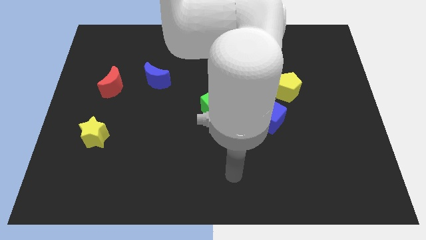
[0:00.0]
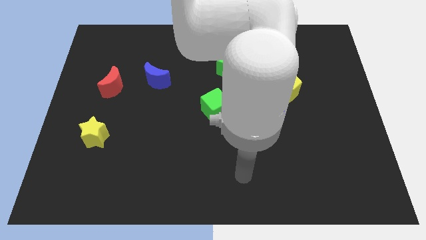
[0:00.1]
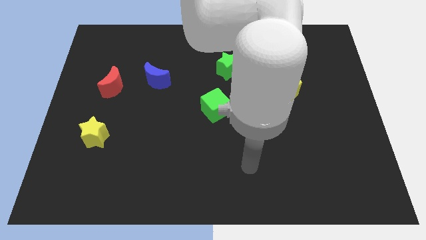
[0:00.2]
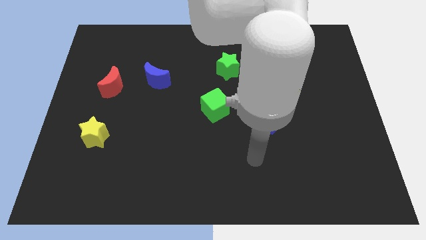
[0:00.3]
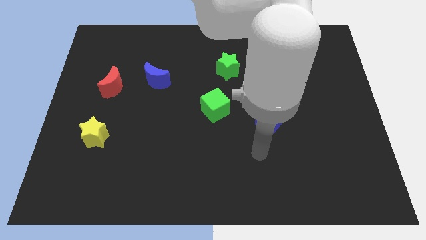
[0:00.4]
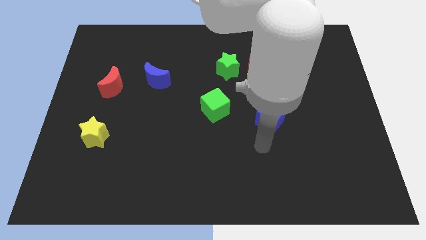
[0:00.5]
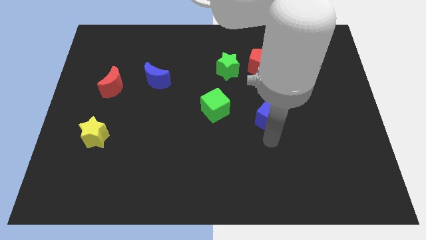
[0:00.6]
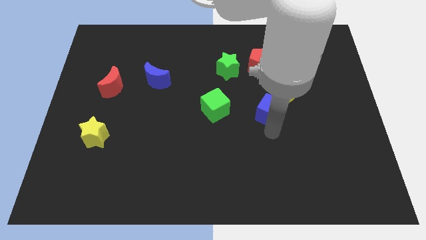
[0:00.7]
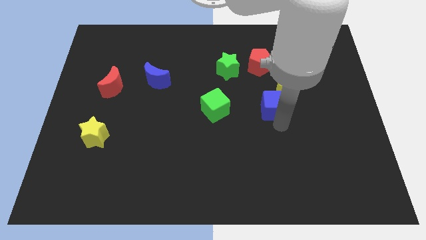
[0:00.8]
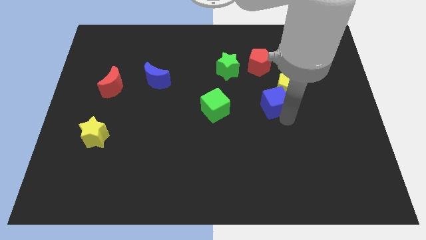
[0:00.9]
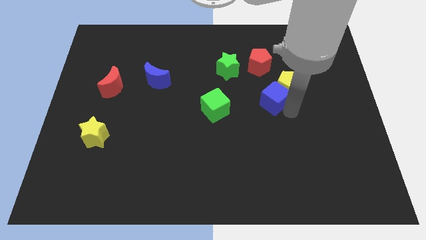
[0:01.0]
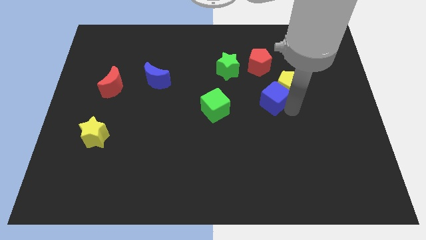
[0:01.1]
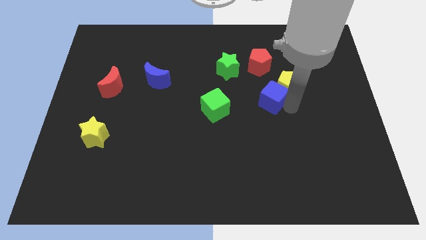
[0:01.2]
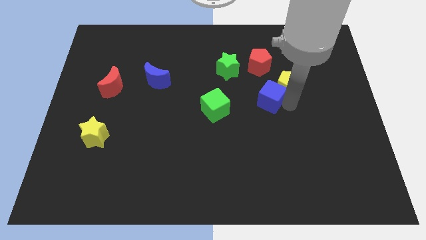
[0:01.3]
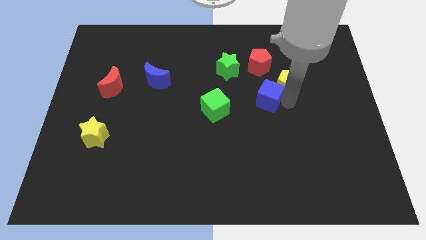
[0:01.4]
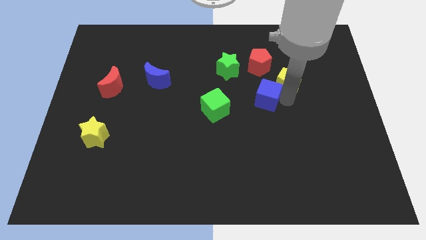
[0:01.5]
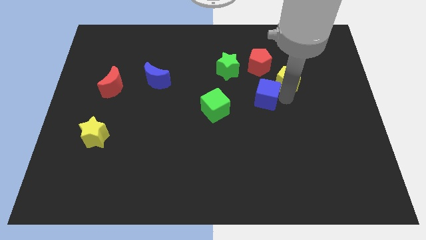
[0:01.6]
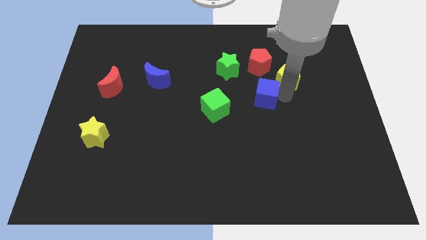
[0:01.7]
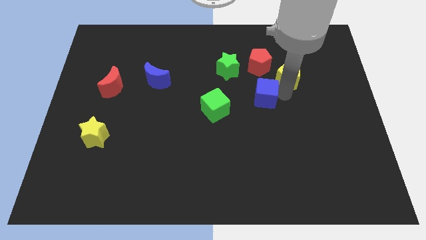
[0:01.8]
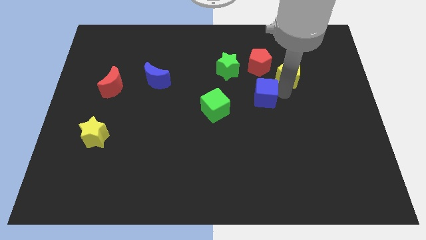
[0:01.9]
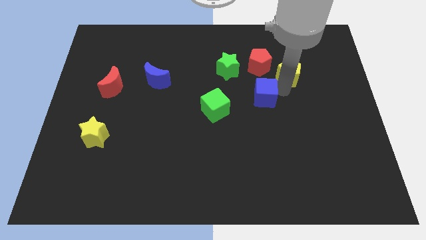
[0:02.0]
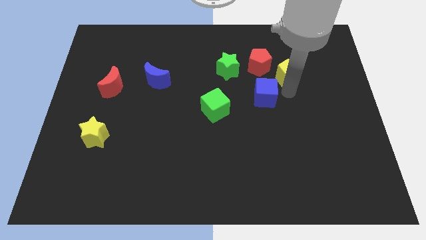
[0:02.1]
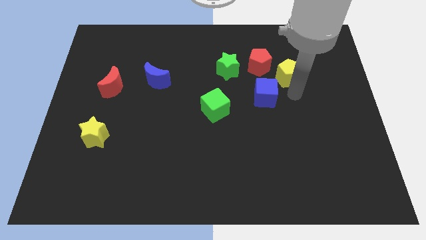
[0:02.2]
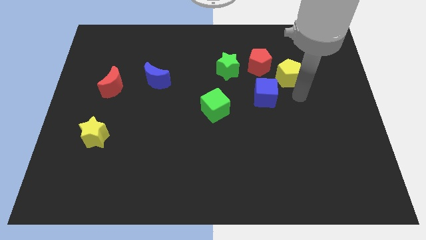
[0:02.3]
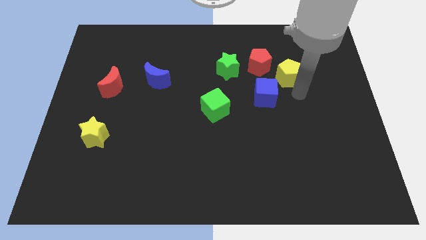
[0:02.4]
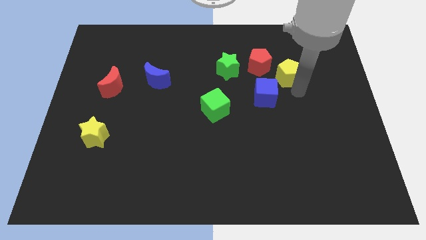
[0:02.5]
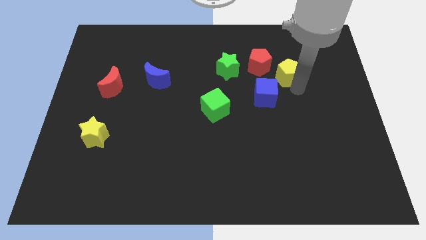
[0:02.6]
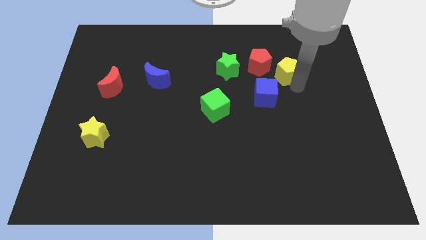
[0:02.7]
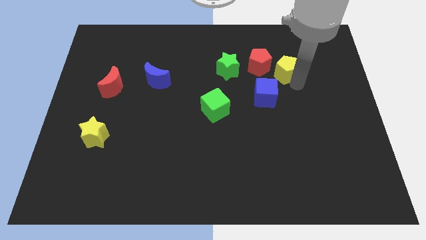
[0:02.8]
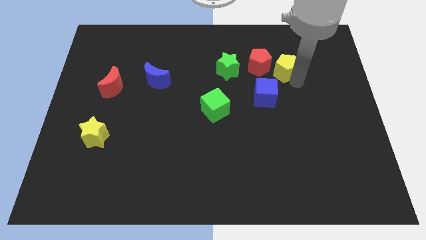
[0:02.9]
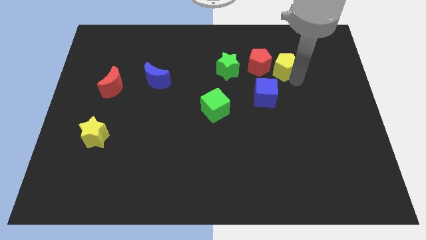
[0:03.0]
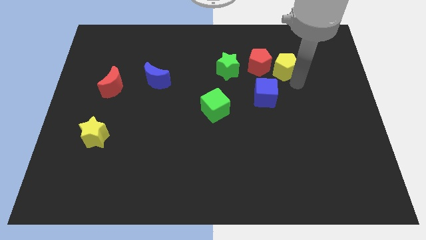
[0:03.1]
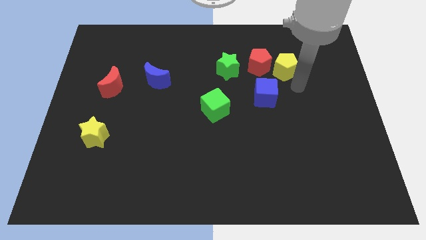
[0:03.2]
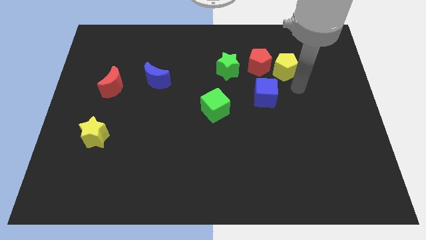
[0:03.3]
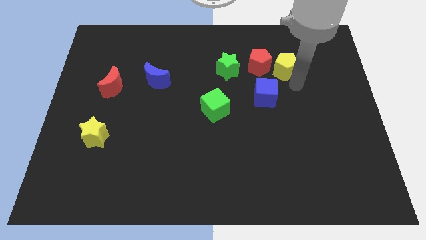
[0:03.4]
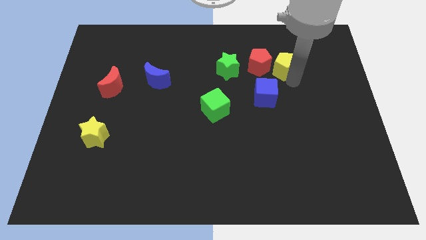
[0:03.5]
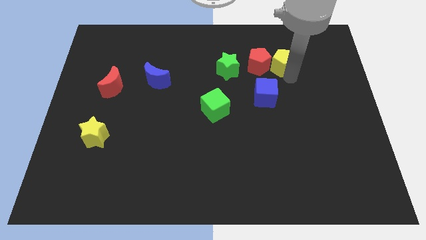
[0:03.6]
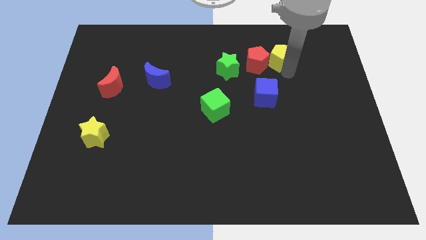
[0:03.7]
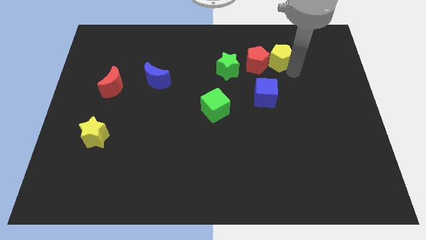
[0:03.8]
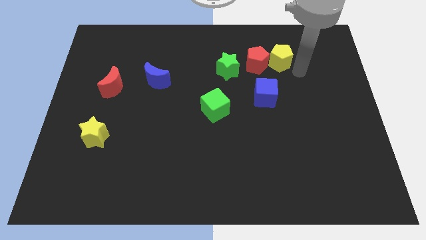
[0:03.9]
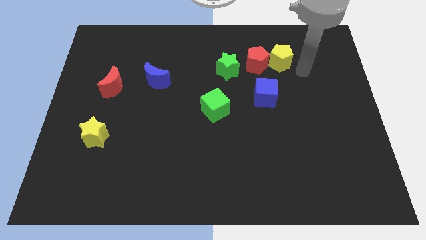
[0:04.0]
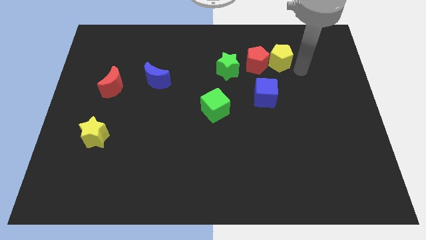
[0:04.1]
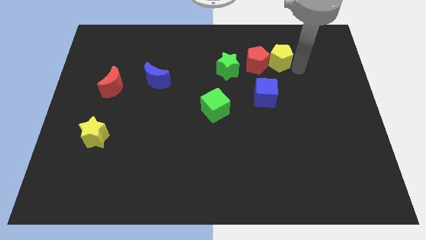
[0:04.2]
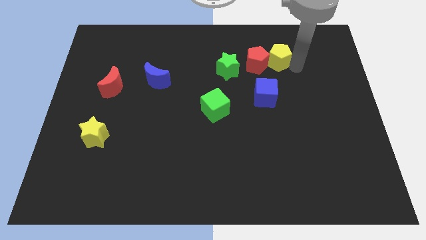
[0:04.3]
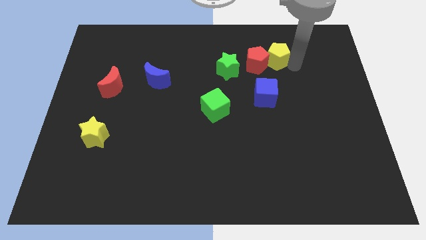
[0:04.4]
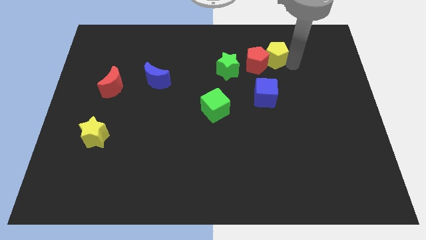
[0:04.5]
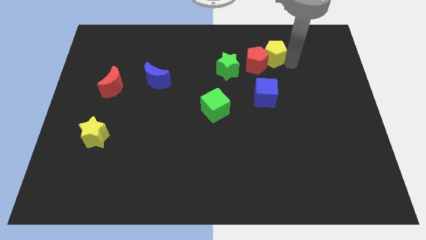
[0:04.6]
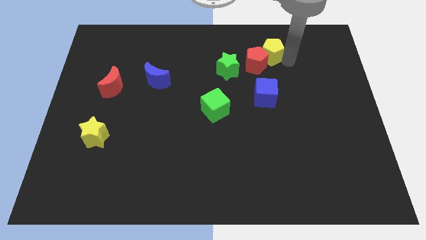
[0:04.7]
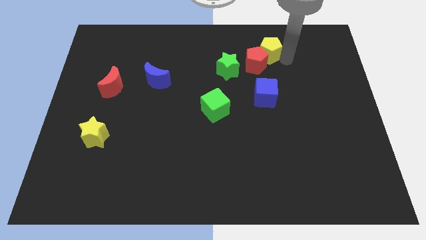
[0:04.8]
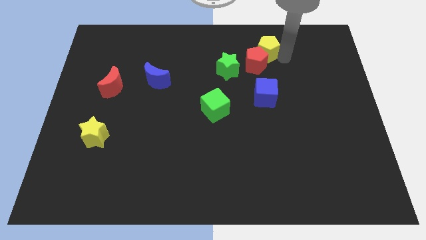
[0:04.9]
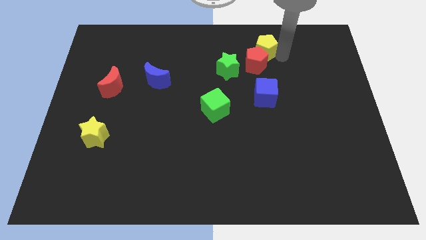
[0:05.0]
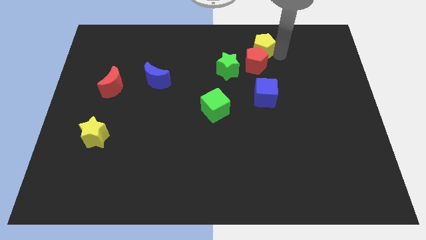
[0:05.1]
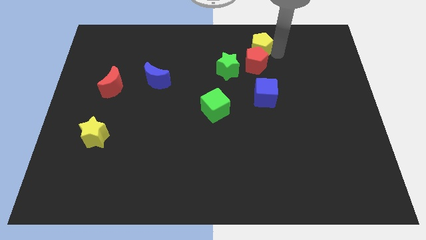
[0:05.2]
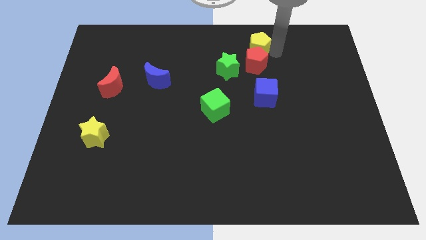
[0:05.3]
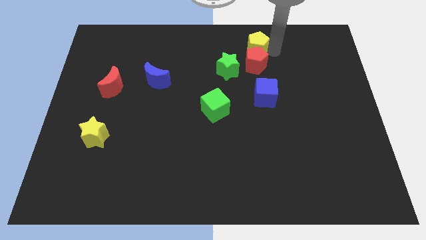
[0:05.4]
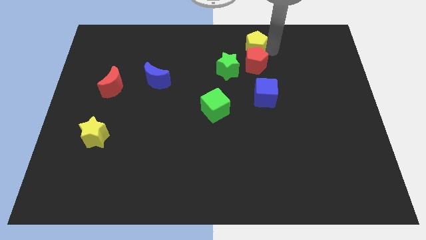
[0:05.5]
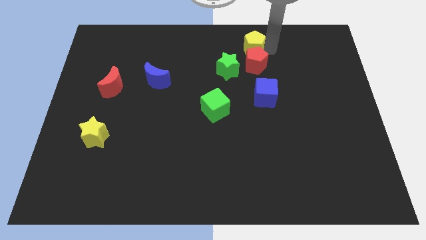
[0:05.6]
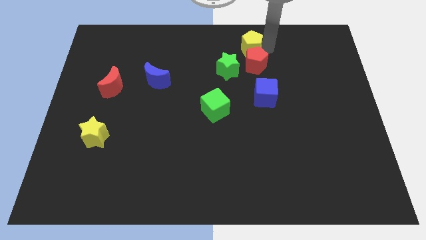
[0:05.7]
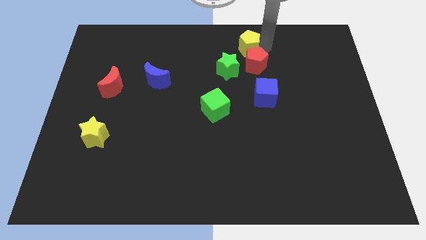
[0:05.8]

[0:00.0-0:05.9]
slide the yellow pentagon to the top
